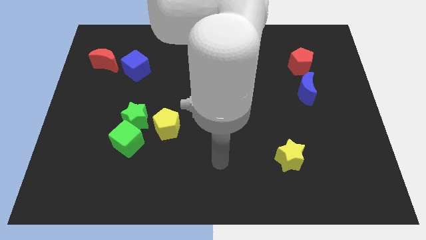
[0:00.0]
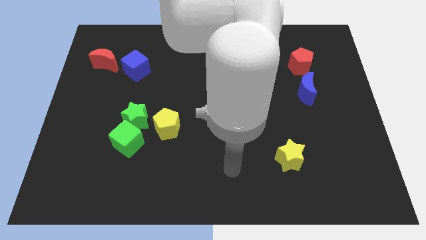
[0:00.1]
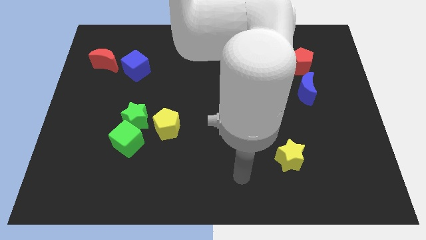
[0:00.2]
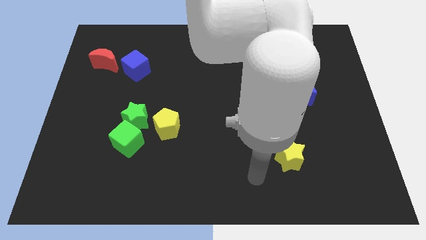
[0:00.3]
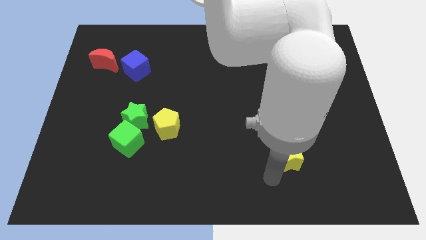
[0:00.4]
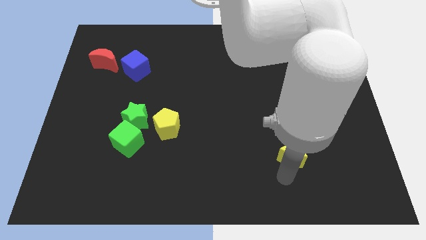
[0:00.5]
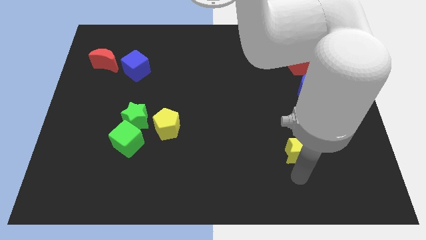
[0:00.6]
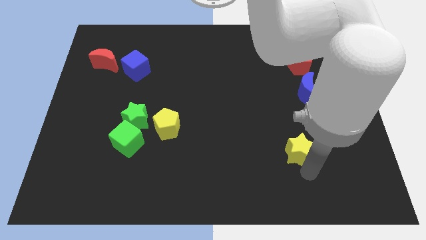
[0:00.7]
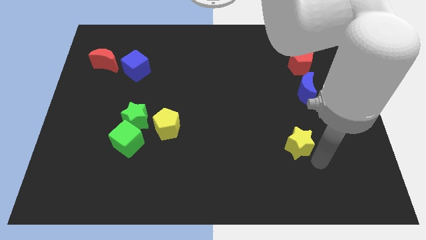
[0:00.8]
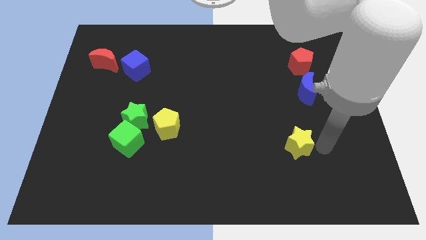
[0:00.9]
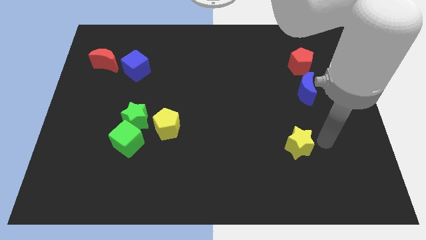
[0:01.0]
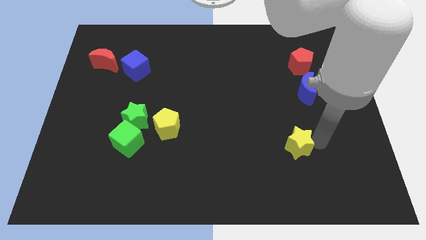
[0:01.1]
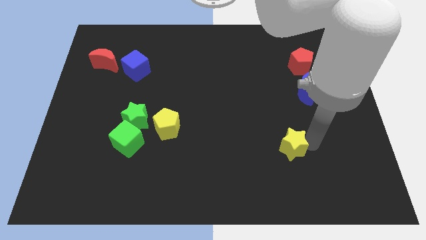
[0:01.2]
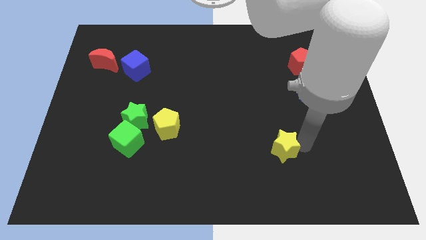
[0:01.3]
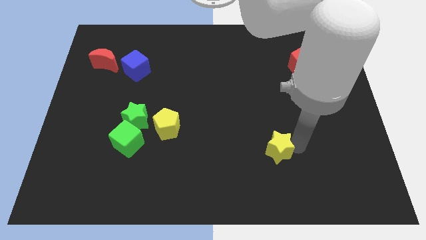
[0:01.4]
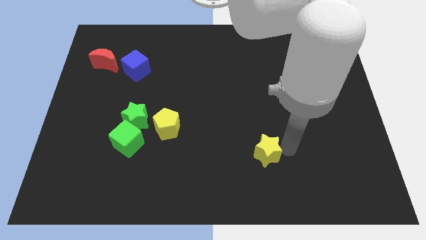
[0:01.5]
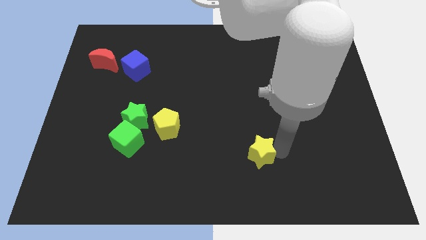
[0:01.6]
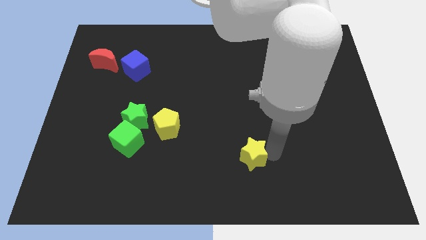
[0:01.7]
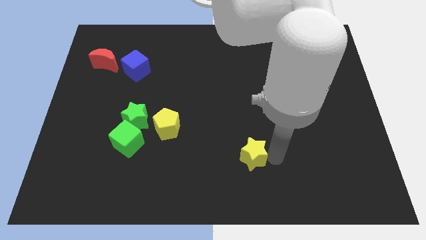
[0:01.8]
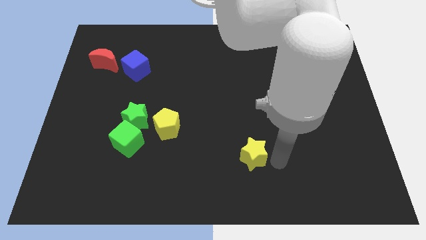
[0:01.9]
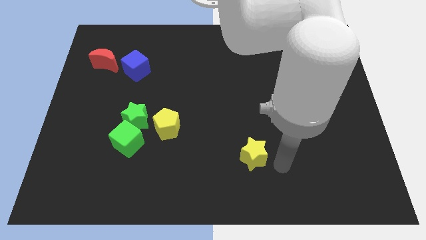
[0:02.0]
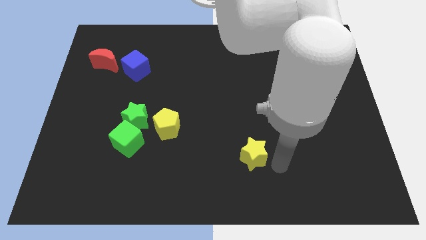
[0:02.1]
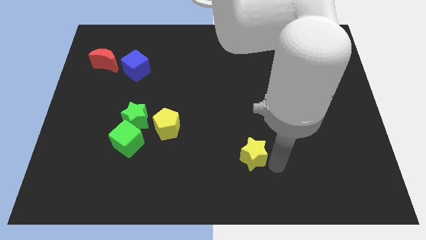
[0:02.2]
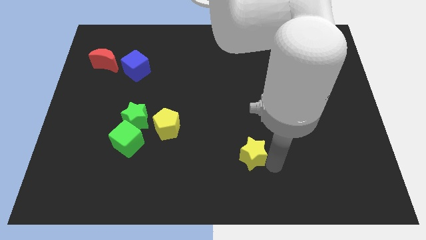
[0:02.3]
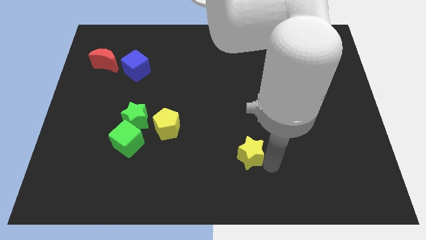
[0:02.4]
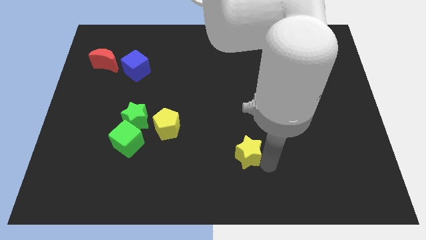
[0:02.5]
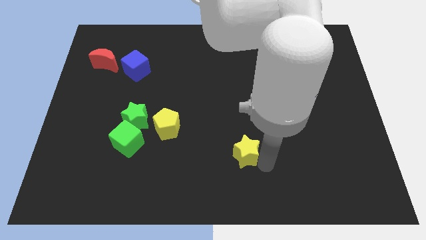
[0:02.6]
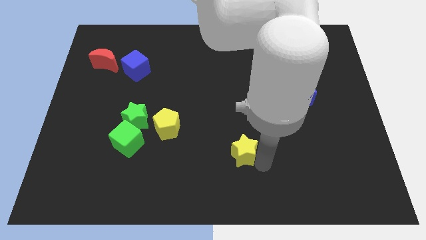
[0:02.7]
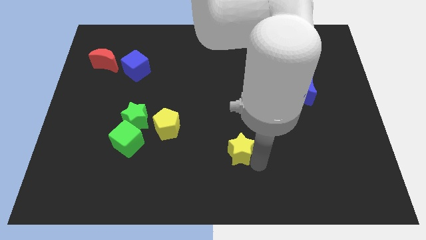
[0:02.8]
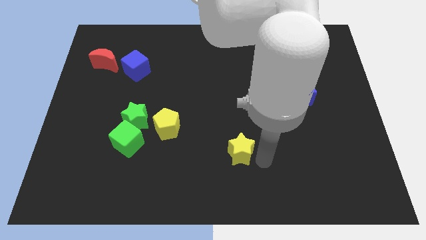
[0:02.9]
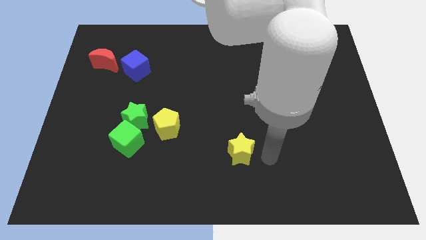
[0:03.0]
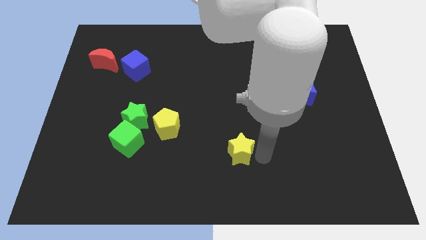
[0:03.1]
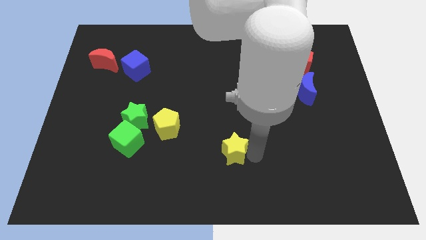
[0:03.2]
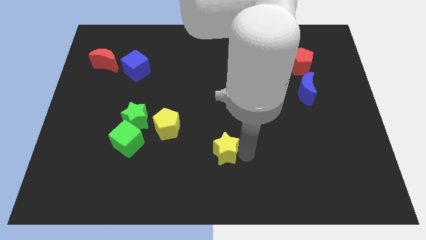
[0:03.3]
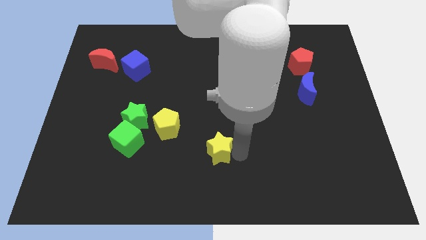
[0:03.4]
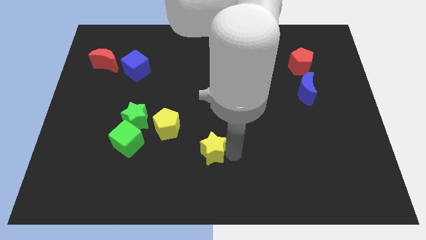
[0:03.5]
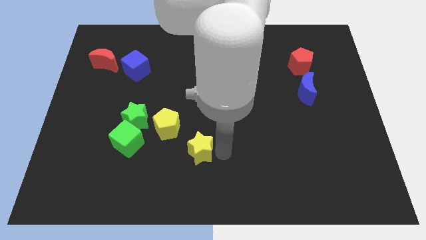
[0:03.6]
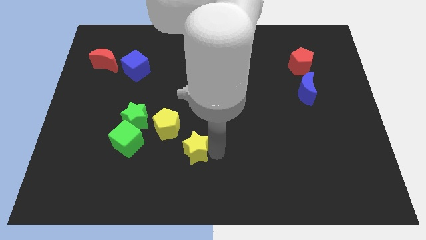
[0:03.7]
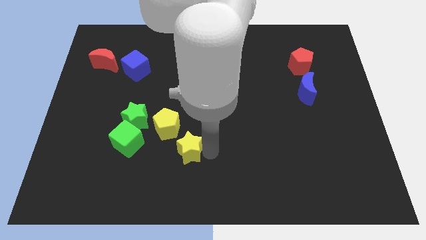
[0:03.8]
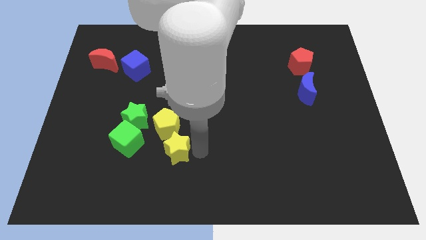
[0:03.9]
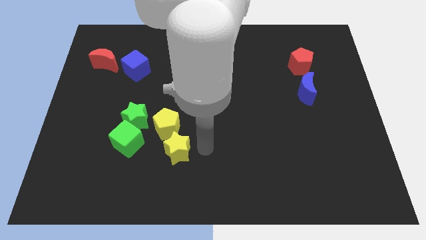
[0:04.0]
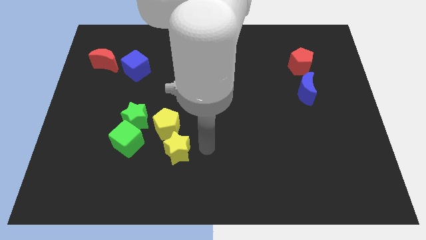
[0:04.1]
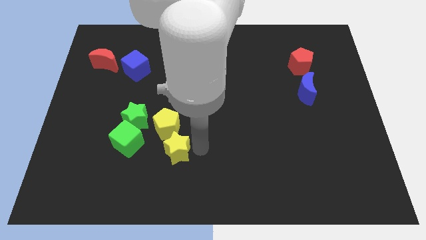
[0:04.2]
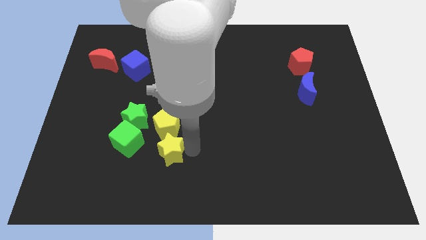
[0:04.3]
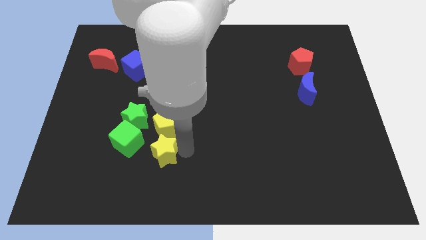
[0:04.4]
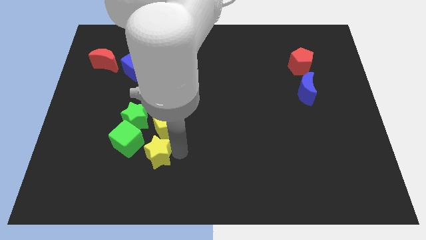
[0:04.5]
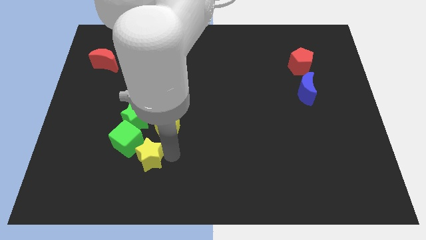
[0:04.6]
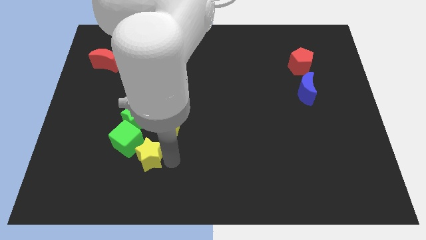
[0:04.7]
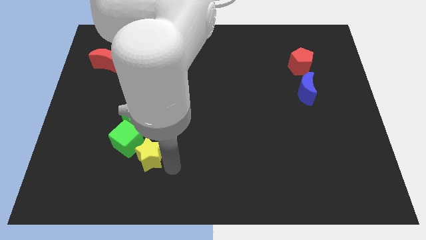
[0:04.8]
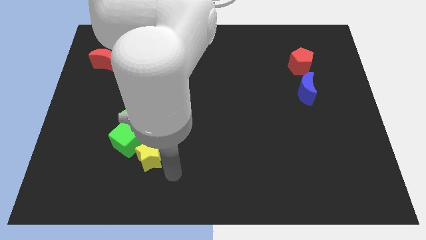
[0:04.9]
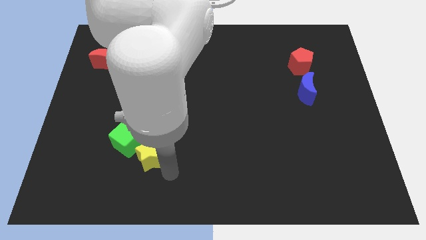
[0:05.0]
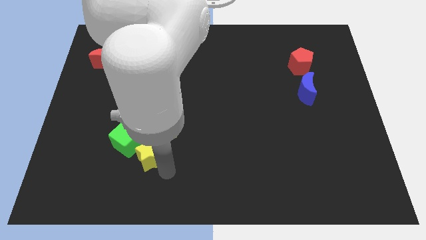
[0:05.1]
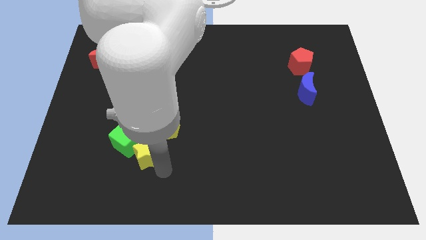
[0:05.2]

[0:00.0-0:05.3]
put the yellow star close to the green cube

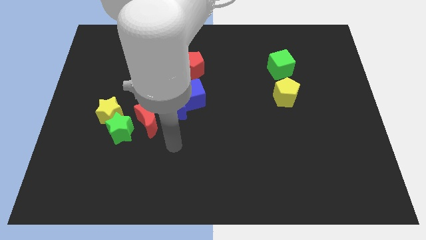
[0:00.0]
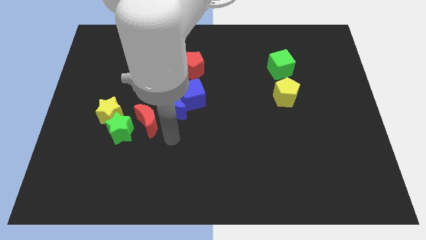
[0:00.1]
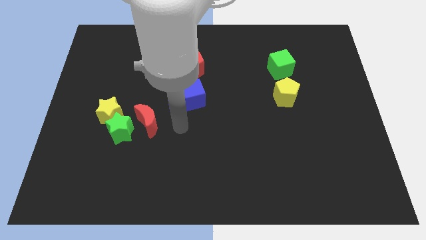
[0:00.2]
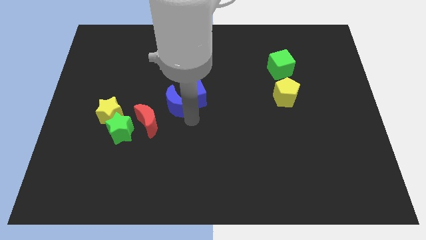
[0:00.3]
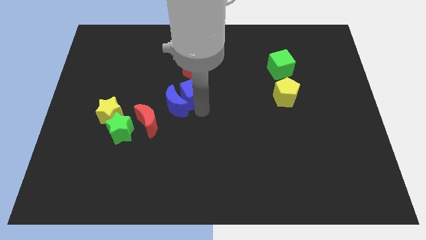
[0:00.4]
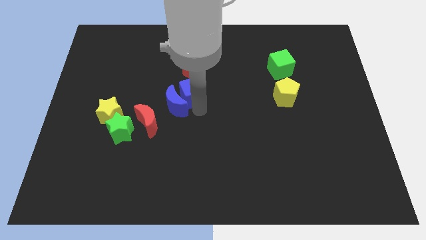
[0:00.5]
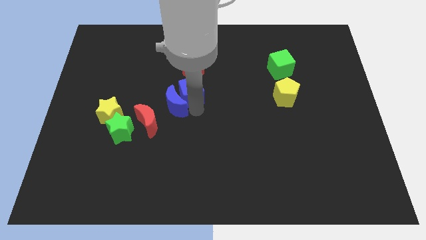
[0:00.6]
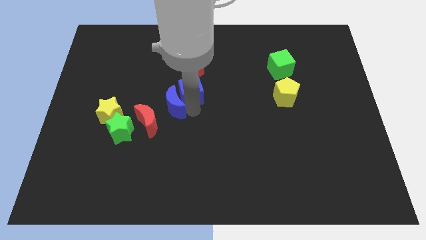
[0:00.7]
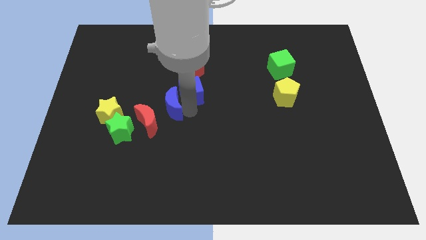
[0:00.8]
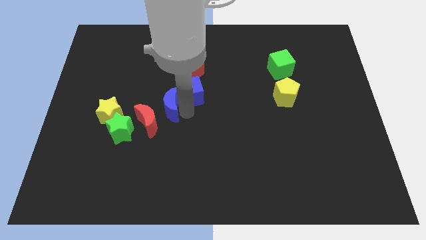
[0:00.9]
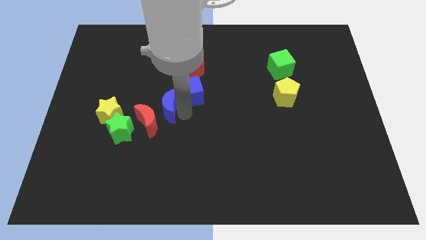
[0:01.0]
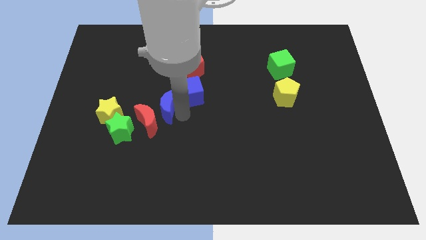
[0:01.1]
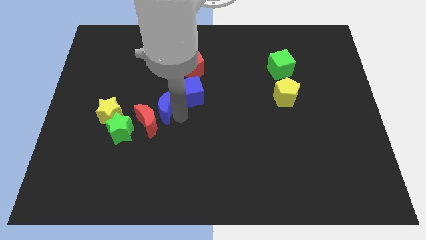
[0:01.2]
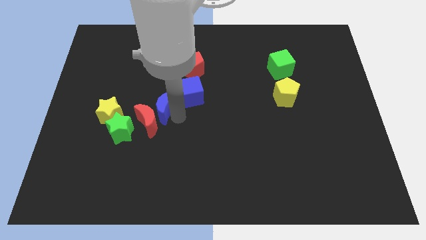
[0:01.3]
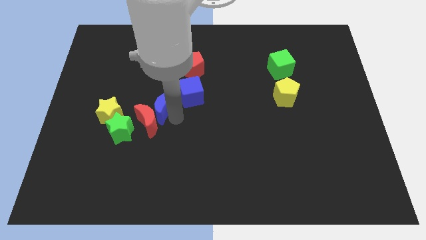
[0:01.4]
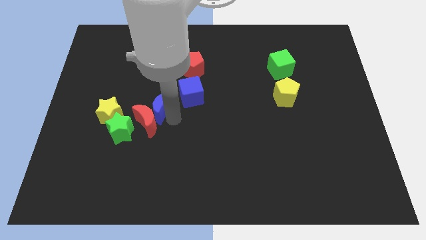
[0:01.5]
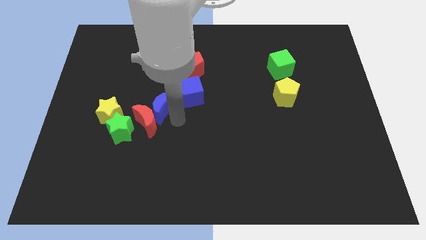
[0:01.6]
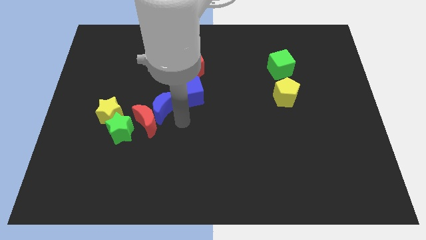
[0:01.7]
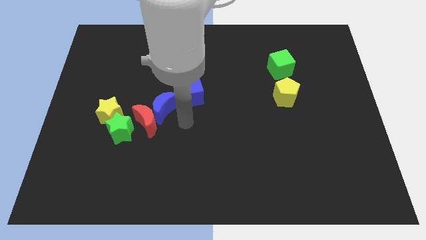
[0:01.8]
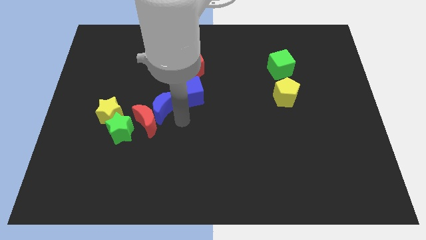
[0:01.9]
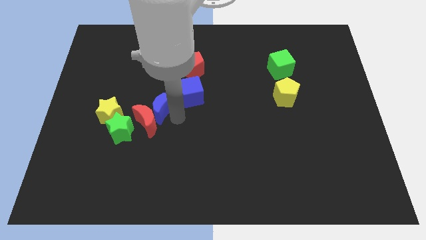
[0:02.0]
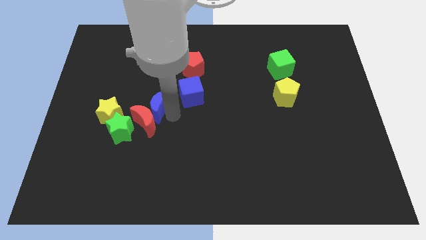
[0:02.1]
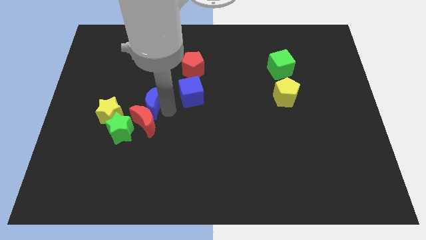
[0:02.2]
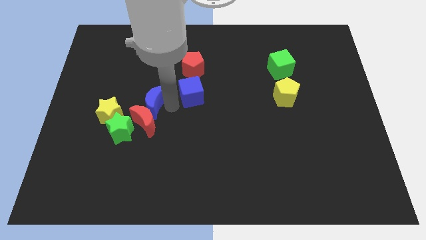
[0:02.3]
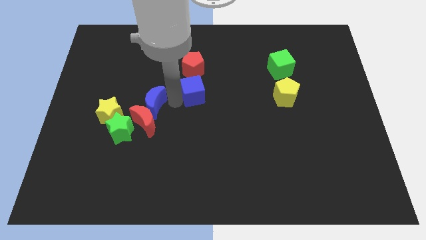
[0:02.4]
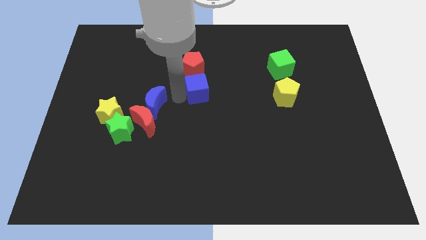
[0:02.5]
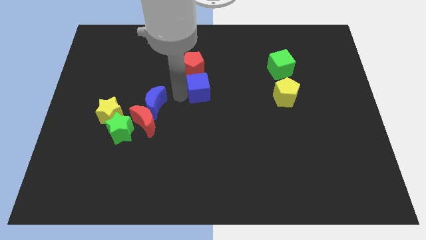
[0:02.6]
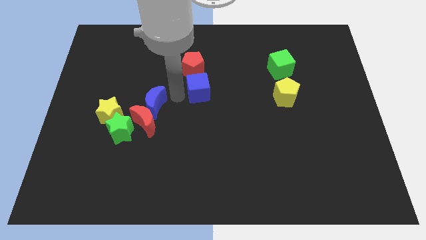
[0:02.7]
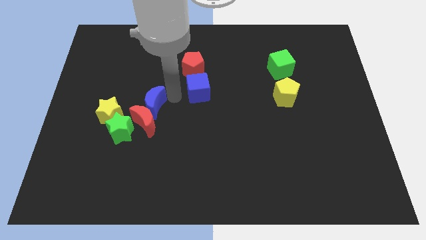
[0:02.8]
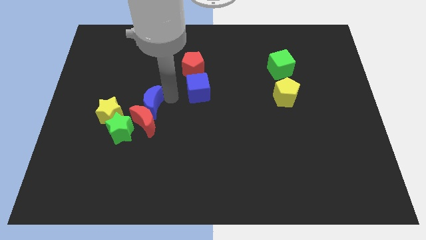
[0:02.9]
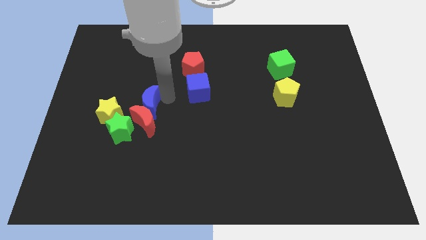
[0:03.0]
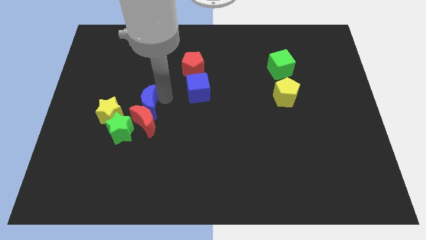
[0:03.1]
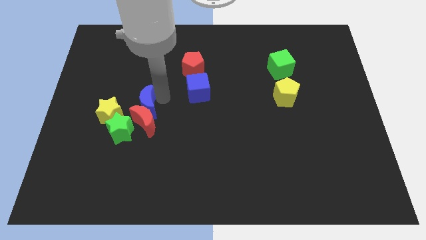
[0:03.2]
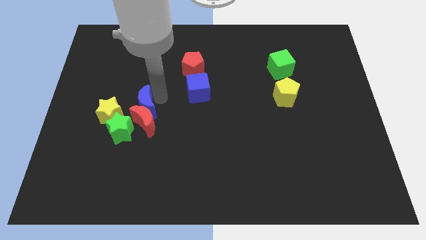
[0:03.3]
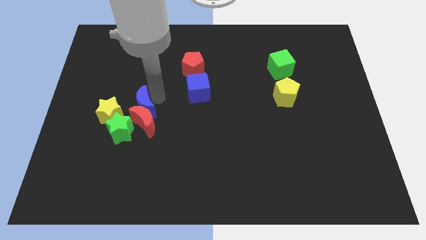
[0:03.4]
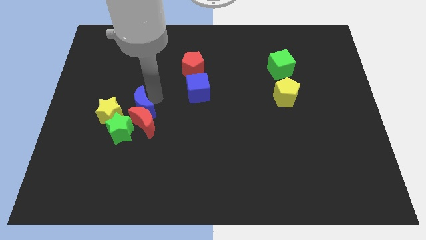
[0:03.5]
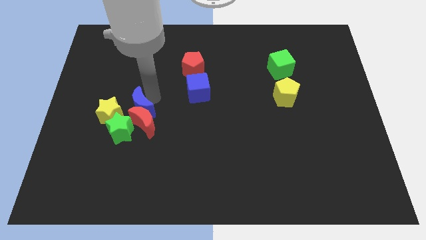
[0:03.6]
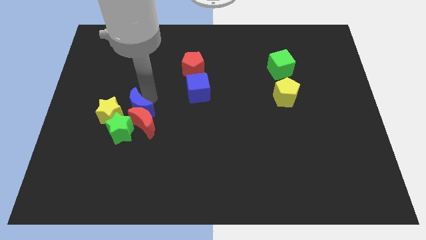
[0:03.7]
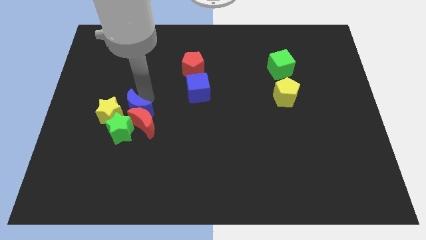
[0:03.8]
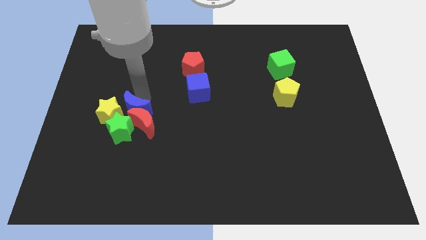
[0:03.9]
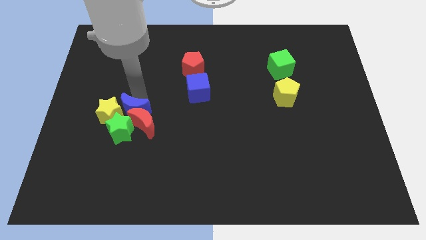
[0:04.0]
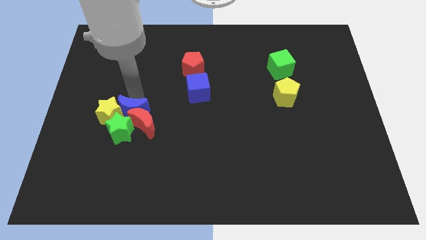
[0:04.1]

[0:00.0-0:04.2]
put the blue moon next to the green star
